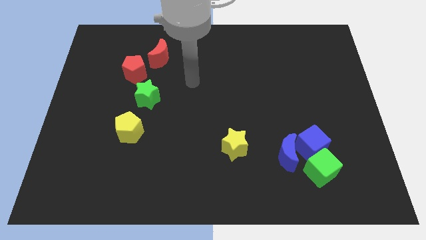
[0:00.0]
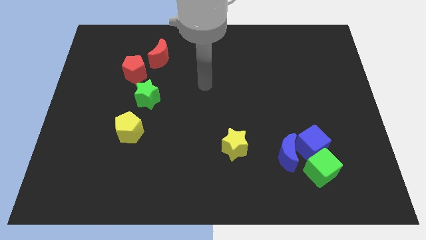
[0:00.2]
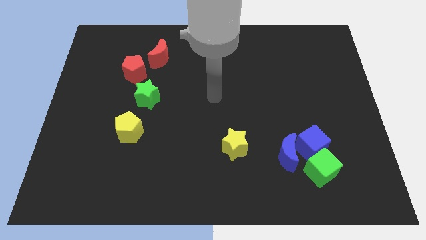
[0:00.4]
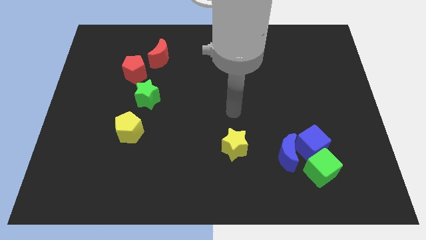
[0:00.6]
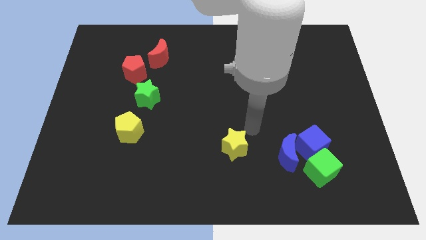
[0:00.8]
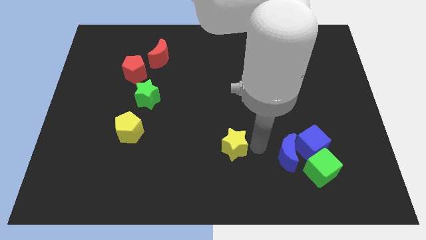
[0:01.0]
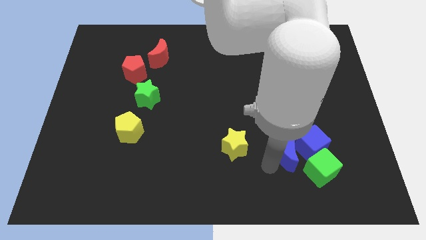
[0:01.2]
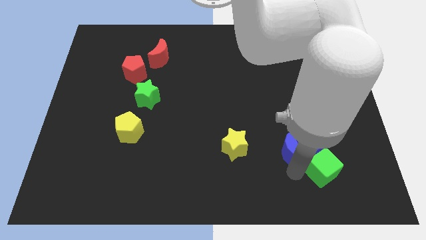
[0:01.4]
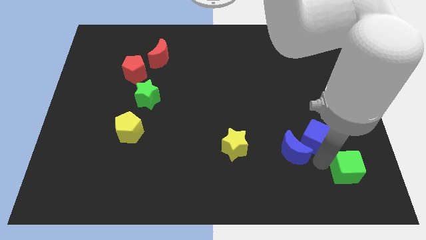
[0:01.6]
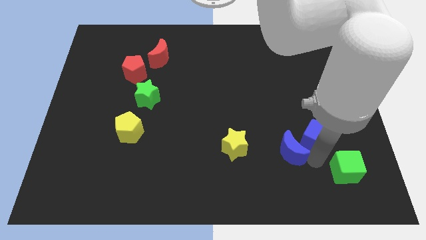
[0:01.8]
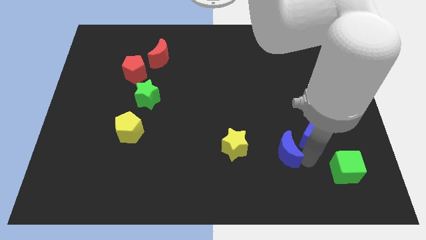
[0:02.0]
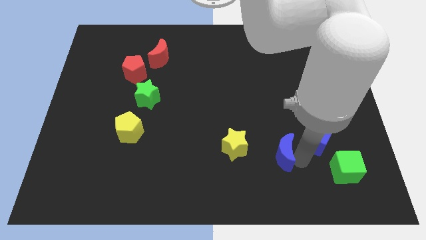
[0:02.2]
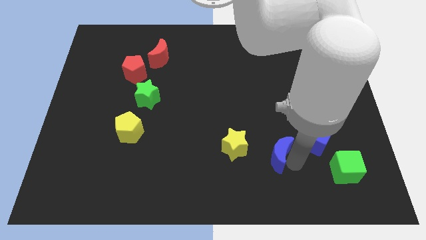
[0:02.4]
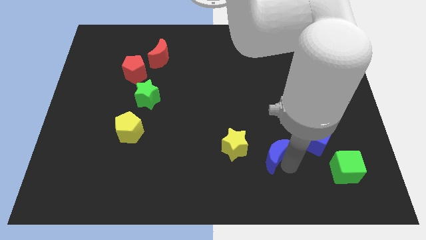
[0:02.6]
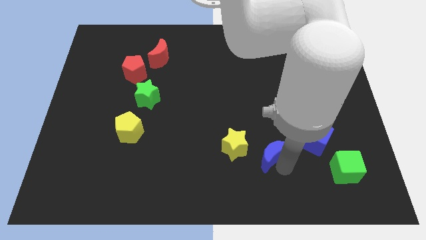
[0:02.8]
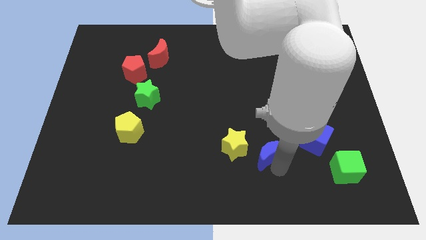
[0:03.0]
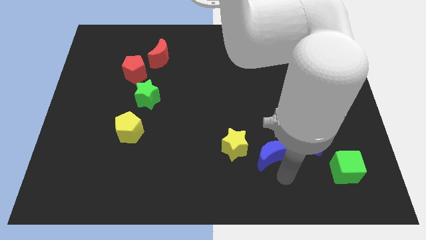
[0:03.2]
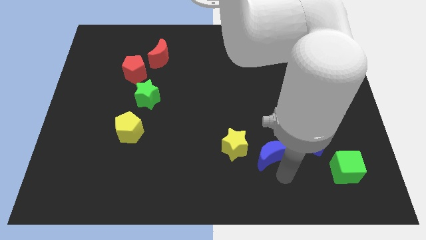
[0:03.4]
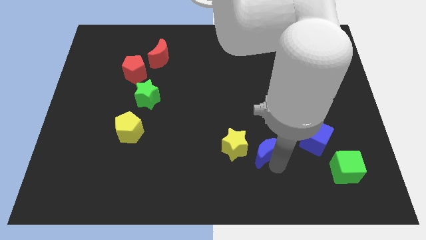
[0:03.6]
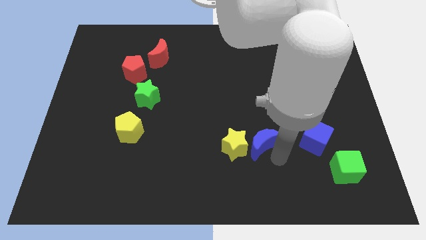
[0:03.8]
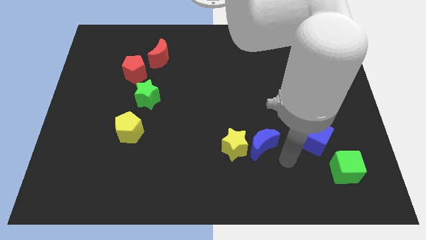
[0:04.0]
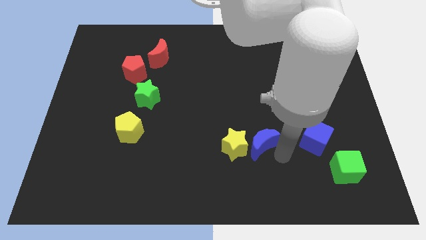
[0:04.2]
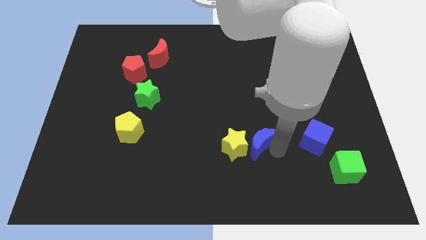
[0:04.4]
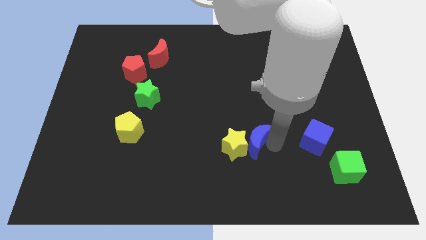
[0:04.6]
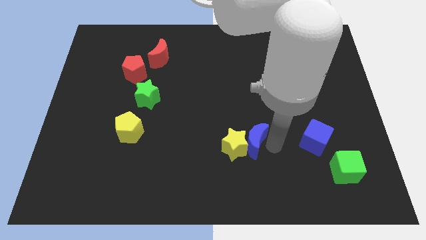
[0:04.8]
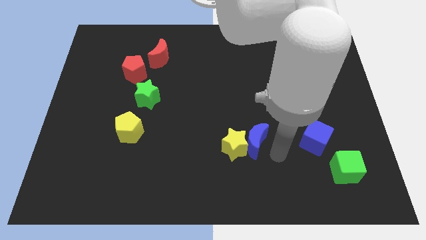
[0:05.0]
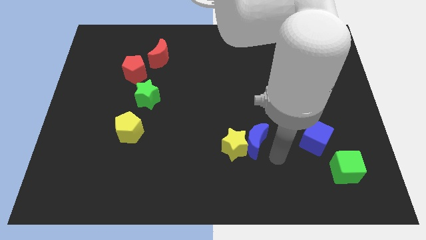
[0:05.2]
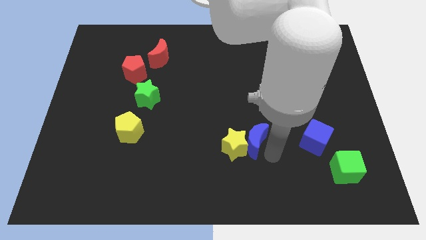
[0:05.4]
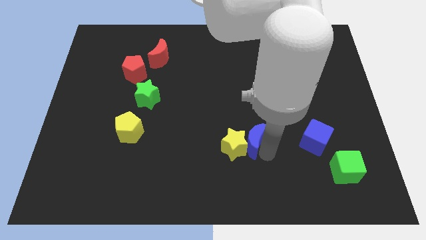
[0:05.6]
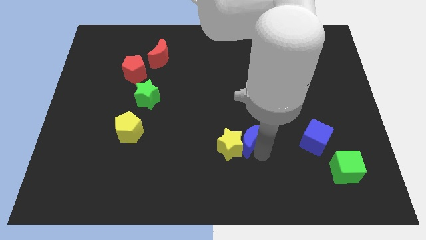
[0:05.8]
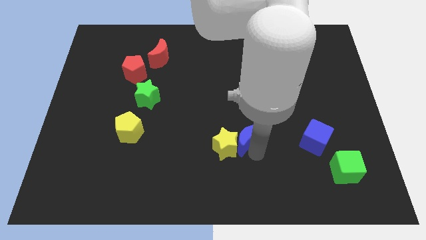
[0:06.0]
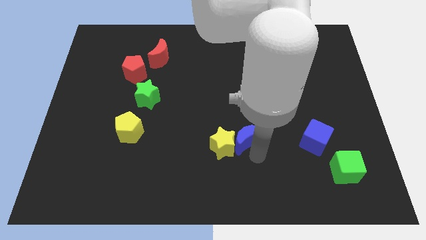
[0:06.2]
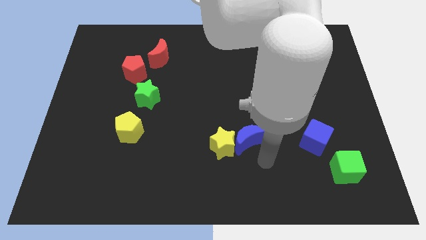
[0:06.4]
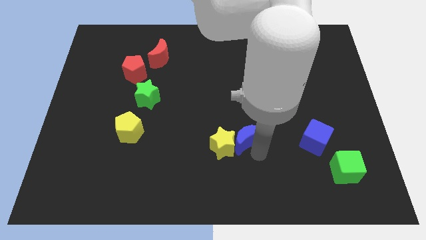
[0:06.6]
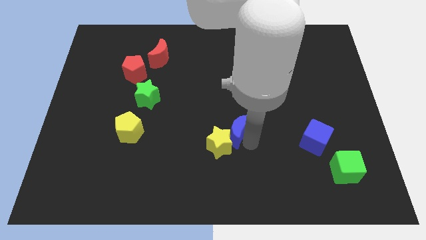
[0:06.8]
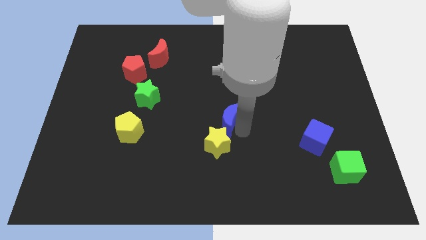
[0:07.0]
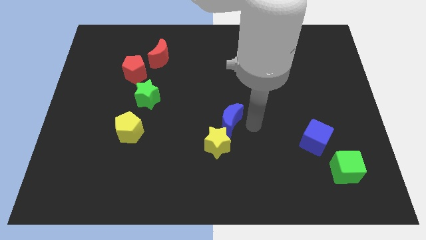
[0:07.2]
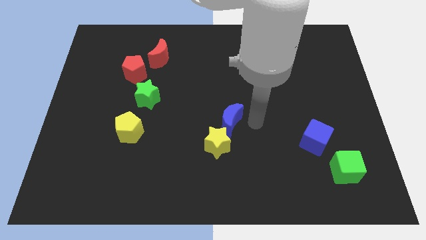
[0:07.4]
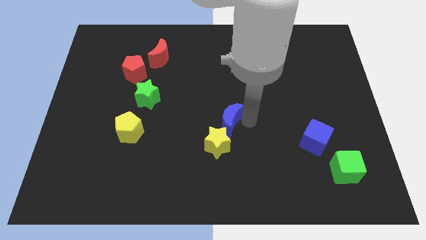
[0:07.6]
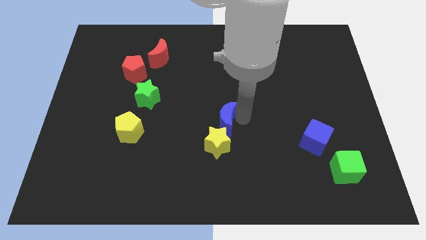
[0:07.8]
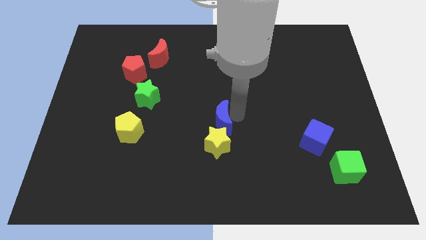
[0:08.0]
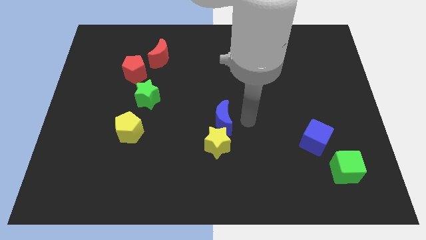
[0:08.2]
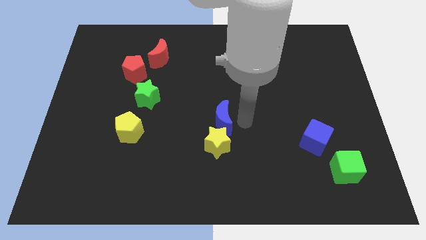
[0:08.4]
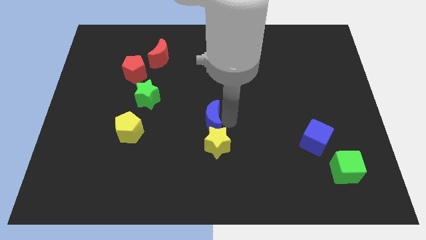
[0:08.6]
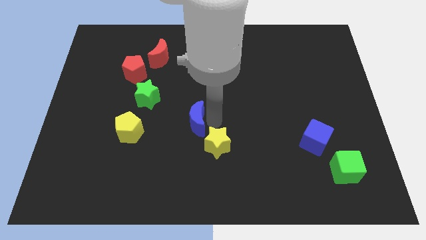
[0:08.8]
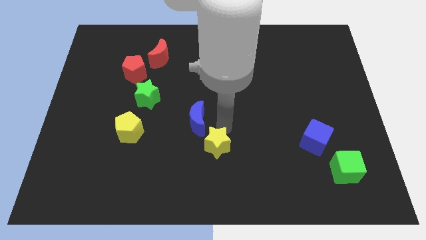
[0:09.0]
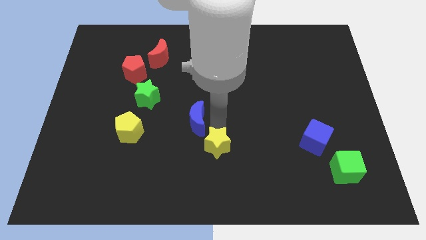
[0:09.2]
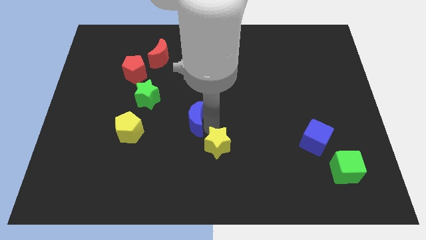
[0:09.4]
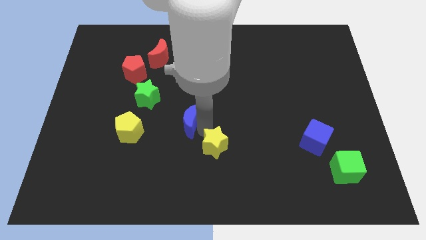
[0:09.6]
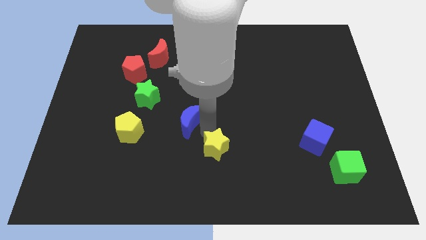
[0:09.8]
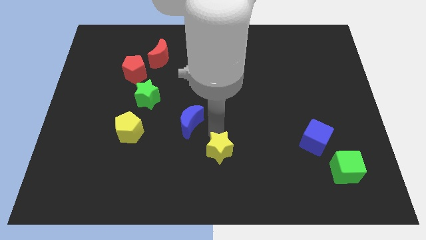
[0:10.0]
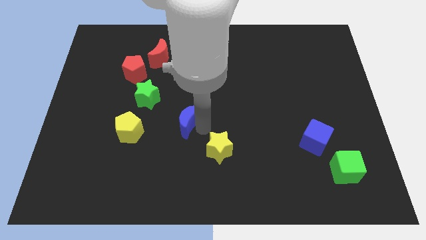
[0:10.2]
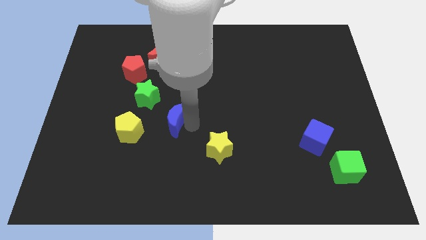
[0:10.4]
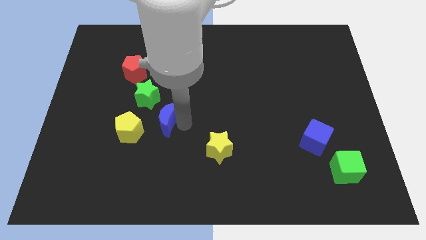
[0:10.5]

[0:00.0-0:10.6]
push the blue moon to the top right of the yellow pentagon
